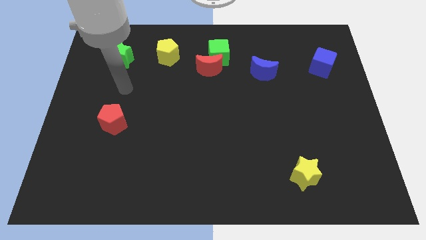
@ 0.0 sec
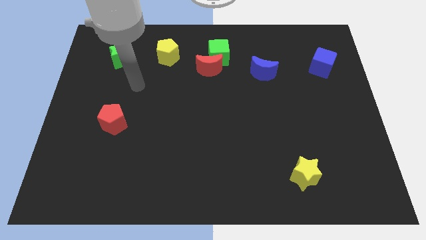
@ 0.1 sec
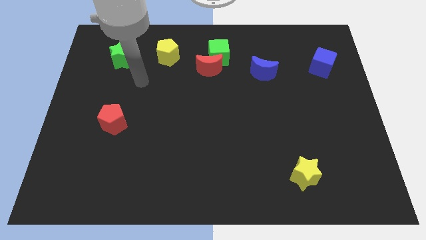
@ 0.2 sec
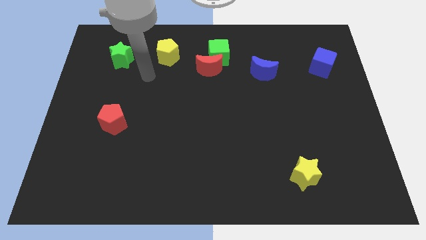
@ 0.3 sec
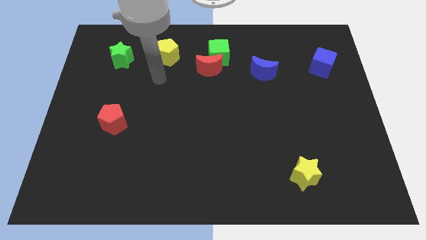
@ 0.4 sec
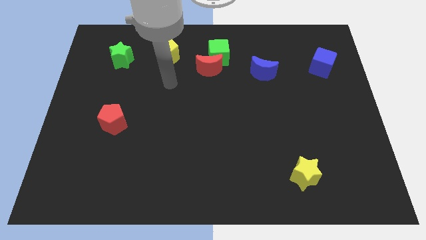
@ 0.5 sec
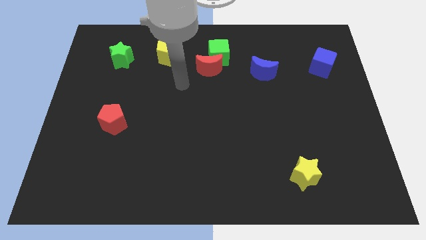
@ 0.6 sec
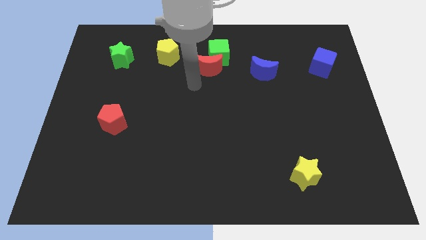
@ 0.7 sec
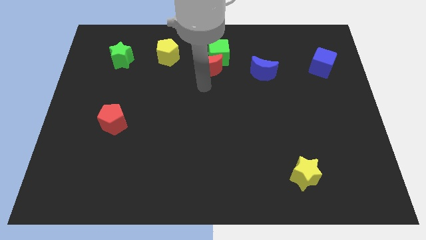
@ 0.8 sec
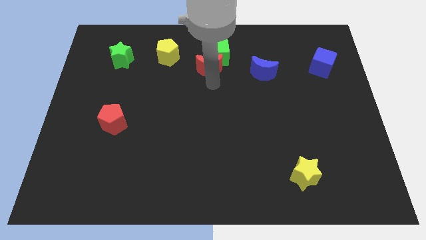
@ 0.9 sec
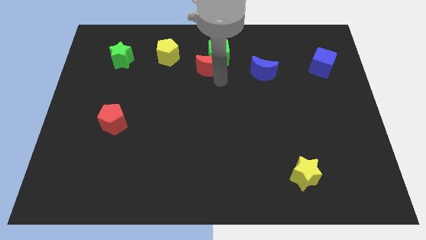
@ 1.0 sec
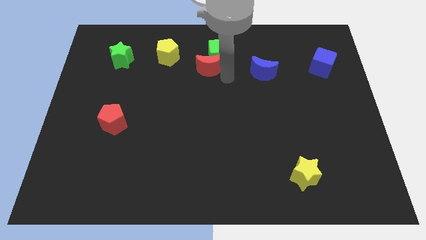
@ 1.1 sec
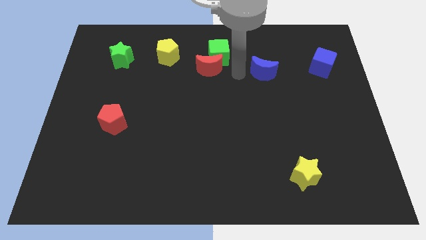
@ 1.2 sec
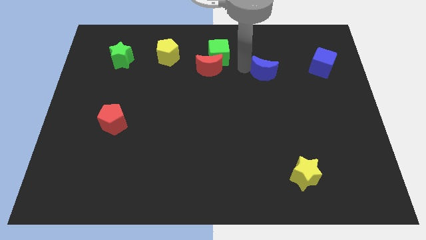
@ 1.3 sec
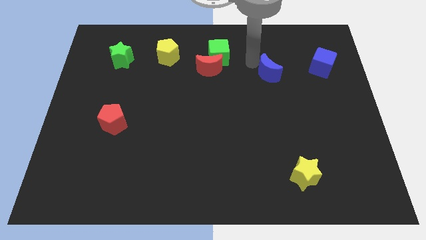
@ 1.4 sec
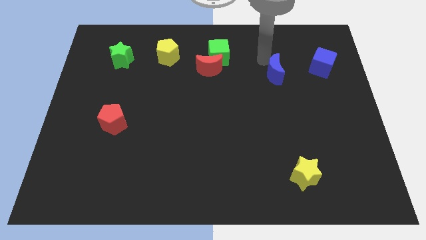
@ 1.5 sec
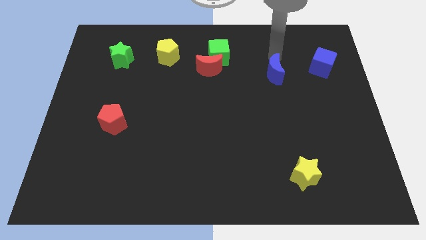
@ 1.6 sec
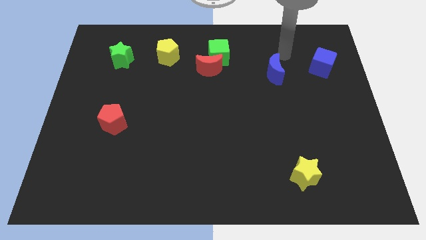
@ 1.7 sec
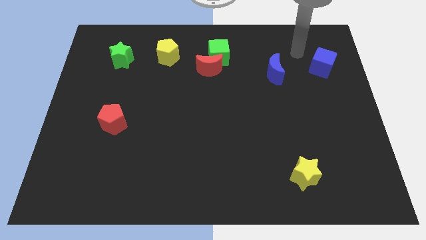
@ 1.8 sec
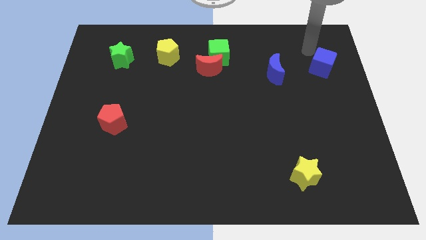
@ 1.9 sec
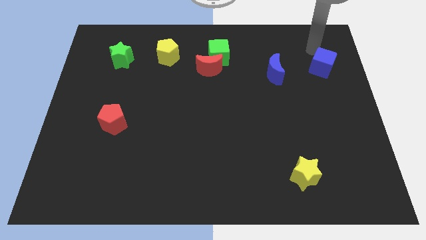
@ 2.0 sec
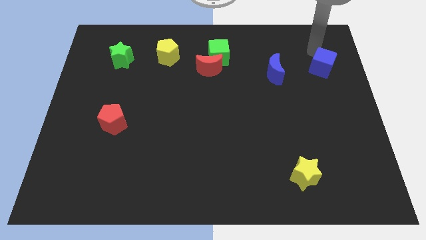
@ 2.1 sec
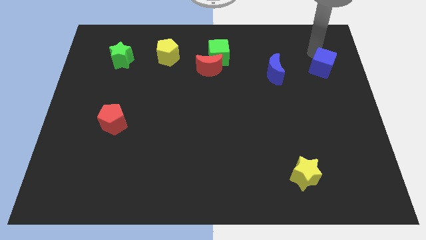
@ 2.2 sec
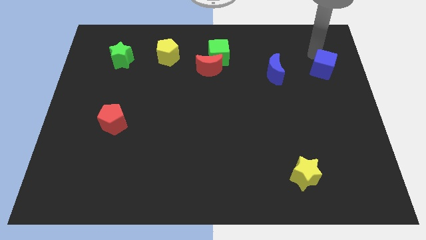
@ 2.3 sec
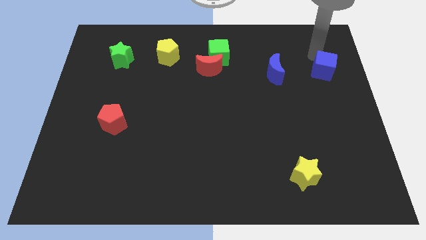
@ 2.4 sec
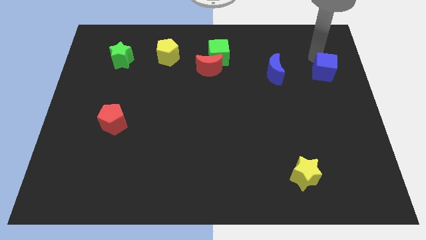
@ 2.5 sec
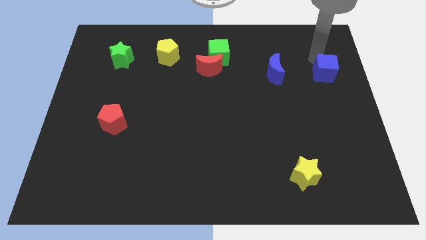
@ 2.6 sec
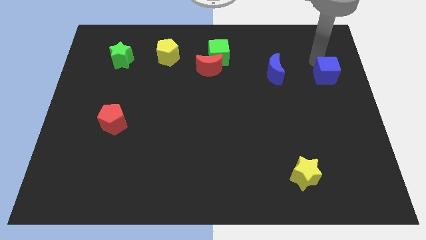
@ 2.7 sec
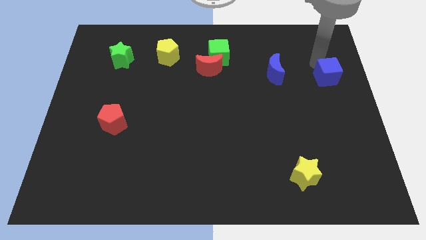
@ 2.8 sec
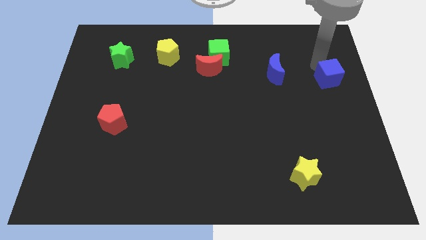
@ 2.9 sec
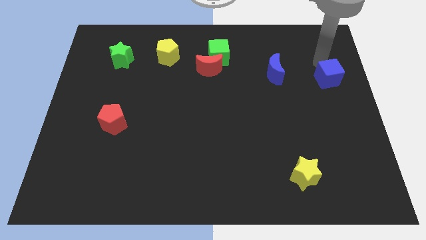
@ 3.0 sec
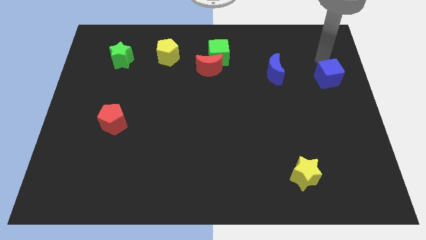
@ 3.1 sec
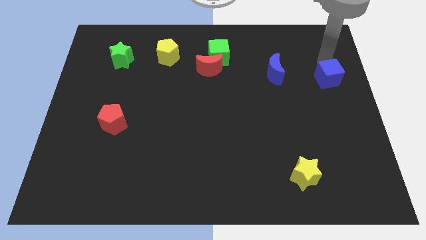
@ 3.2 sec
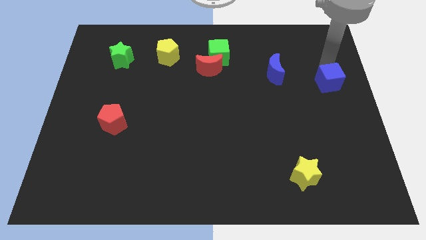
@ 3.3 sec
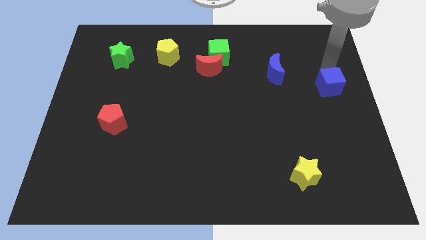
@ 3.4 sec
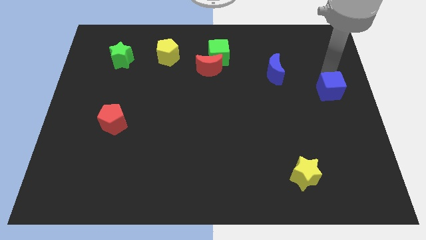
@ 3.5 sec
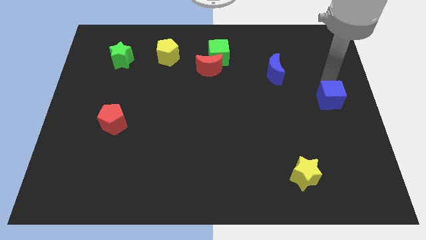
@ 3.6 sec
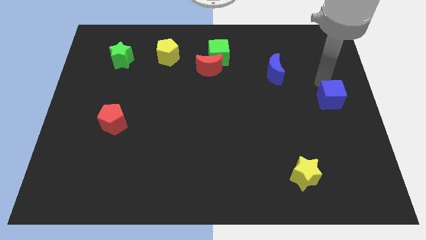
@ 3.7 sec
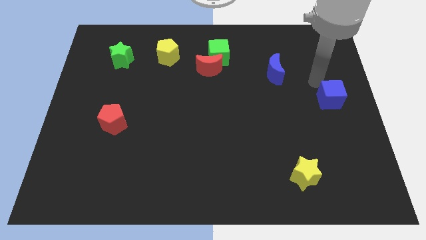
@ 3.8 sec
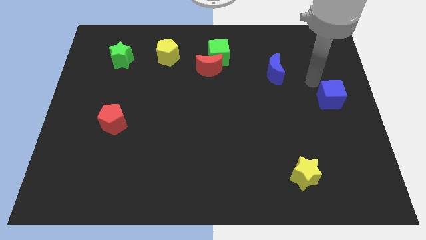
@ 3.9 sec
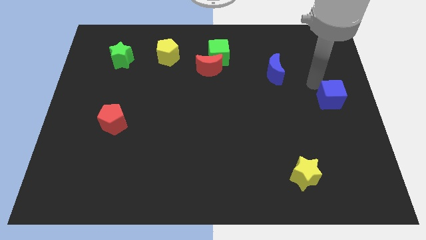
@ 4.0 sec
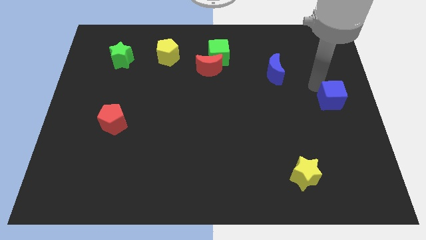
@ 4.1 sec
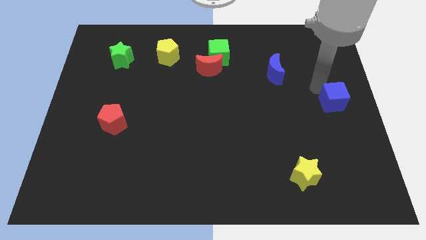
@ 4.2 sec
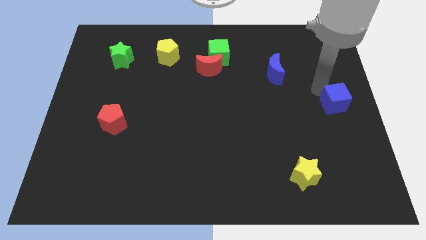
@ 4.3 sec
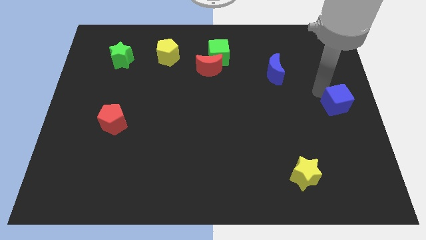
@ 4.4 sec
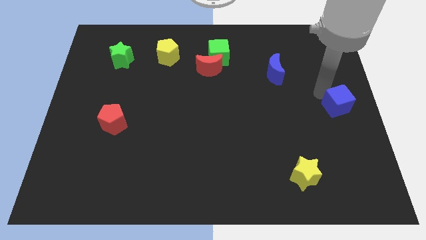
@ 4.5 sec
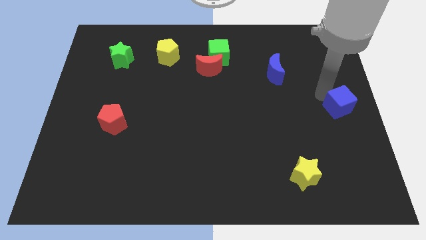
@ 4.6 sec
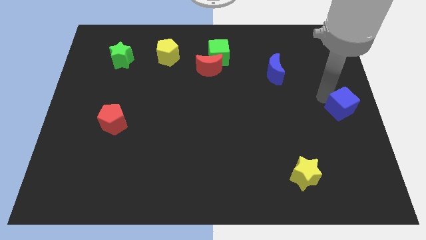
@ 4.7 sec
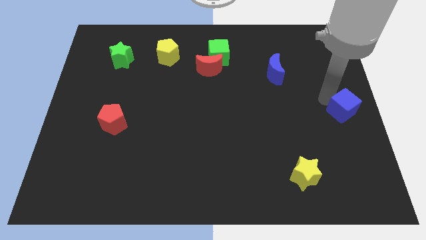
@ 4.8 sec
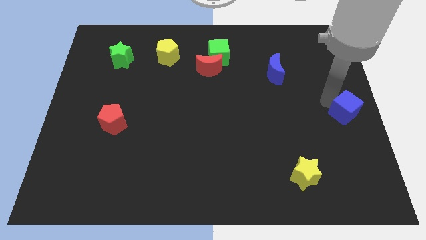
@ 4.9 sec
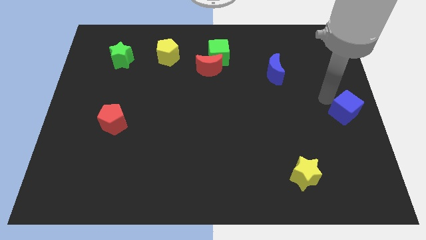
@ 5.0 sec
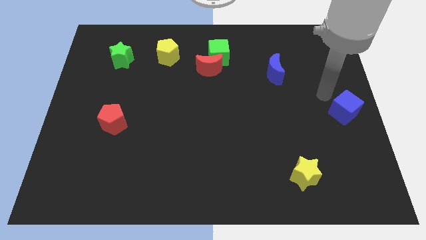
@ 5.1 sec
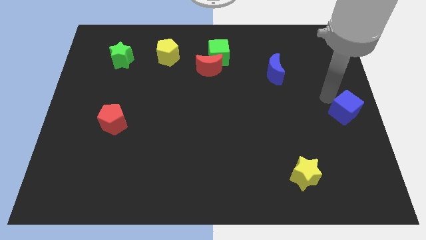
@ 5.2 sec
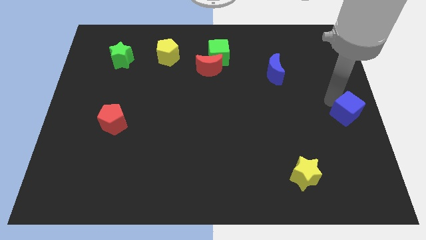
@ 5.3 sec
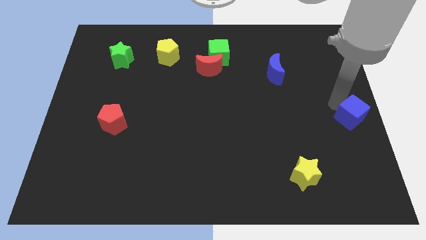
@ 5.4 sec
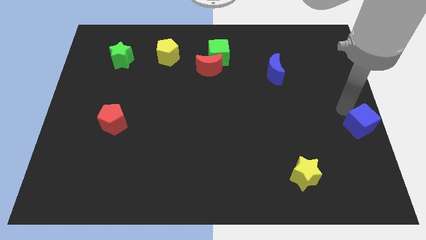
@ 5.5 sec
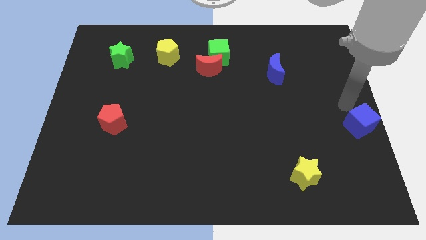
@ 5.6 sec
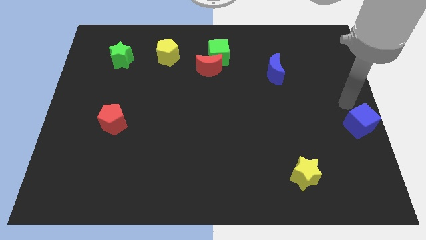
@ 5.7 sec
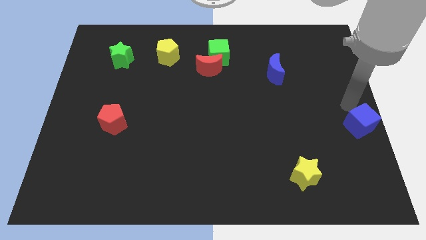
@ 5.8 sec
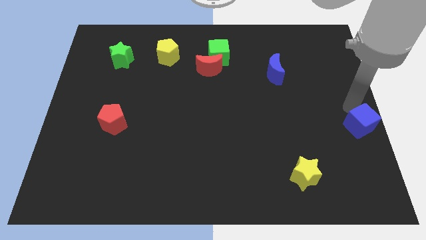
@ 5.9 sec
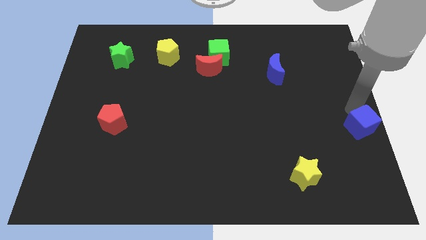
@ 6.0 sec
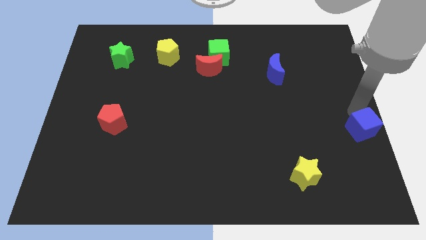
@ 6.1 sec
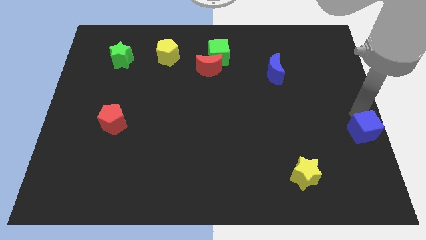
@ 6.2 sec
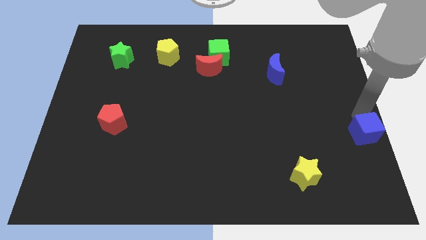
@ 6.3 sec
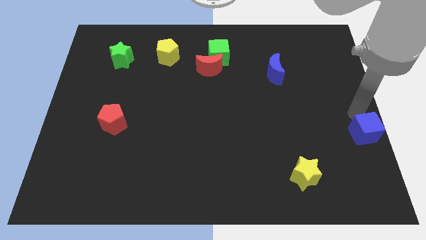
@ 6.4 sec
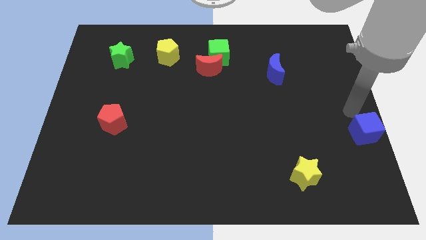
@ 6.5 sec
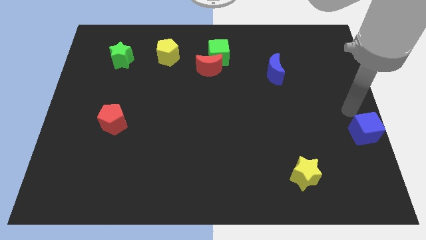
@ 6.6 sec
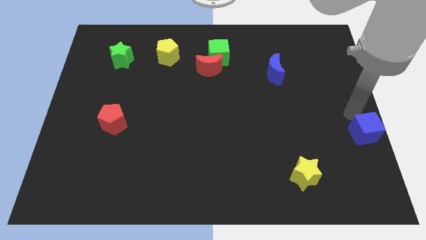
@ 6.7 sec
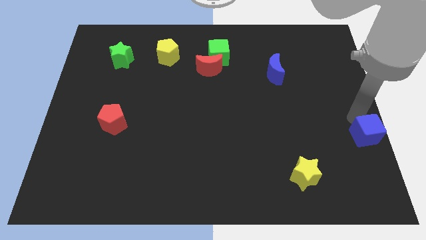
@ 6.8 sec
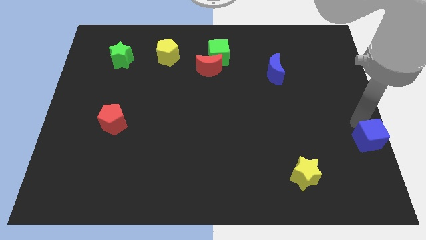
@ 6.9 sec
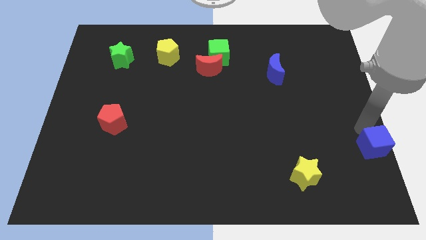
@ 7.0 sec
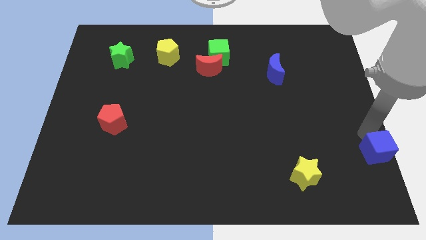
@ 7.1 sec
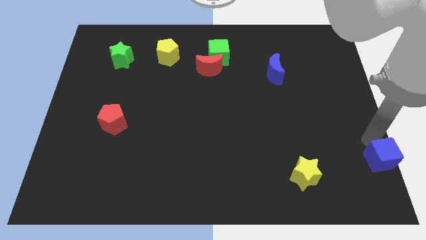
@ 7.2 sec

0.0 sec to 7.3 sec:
slide the blue cube to the bottom right of the board
